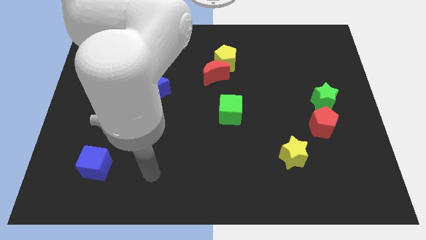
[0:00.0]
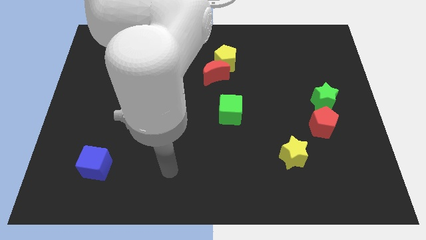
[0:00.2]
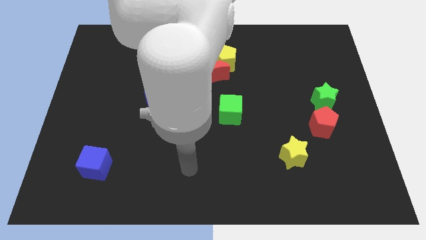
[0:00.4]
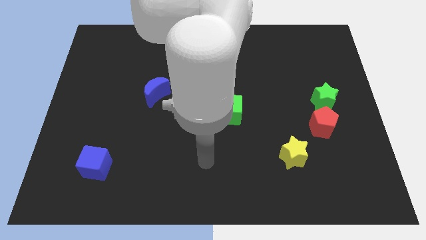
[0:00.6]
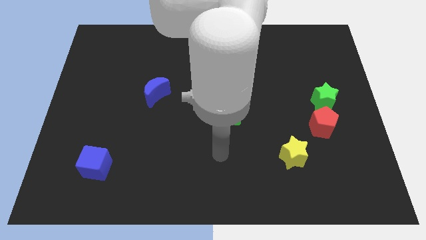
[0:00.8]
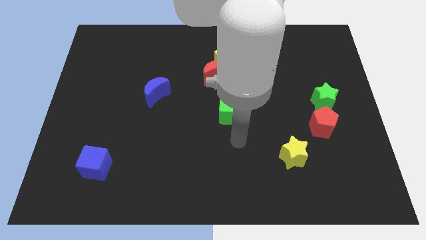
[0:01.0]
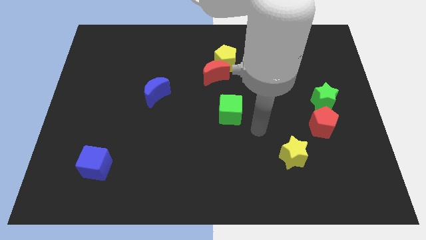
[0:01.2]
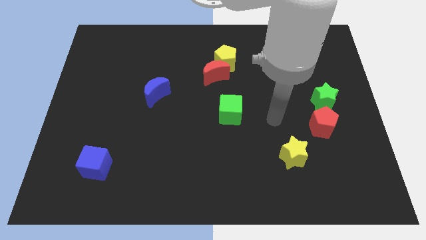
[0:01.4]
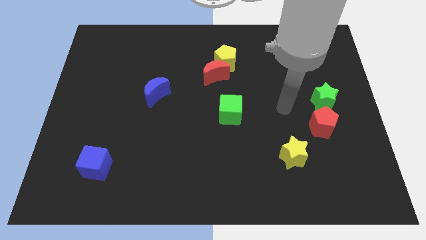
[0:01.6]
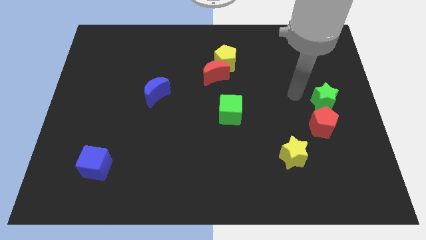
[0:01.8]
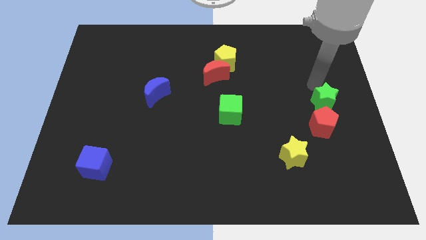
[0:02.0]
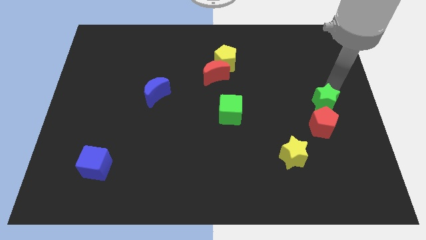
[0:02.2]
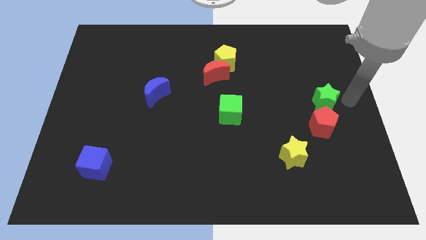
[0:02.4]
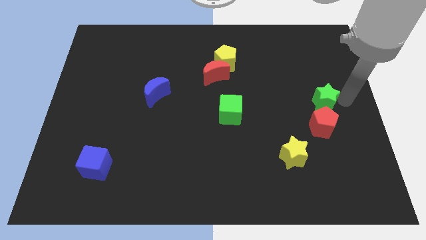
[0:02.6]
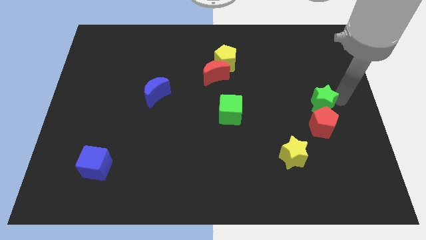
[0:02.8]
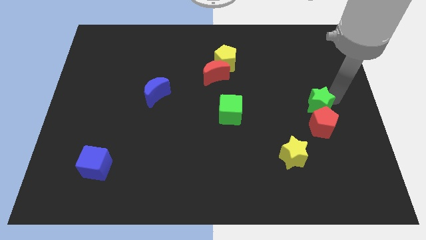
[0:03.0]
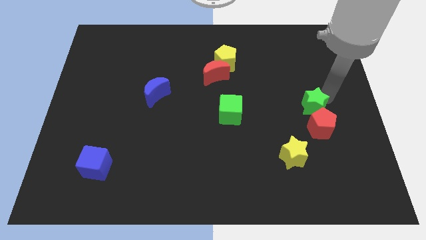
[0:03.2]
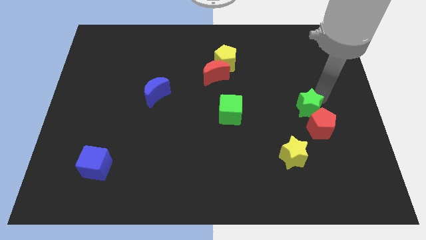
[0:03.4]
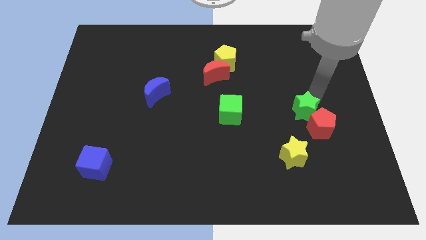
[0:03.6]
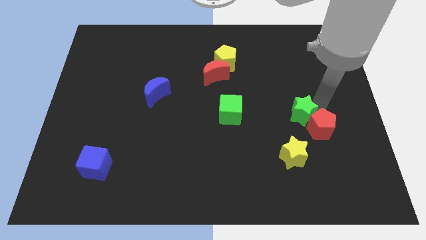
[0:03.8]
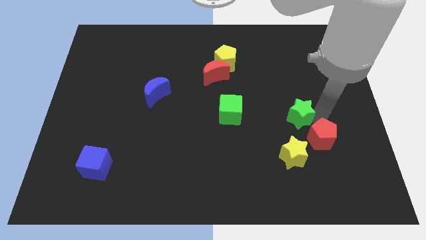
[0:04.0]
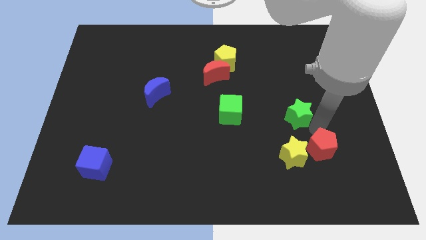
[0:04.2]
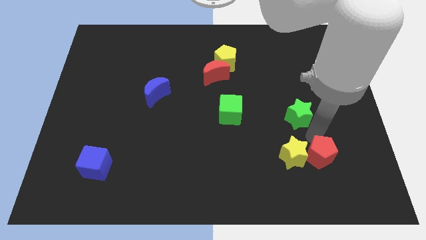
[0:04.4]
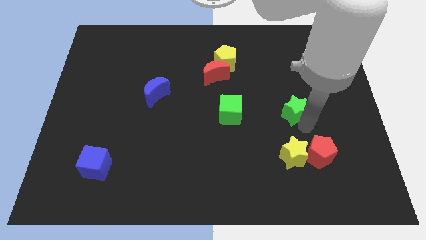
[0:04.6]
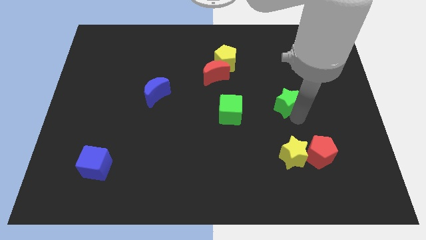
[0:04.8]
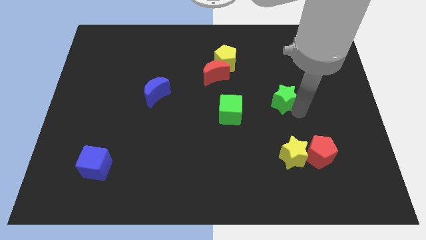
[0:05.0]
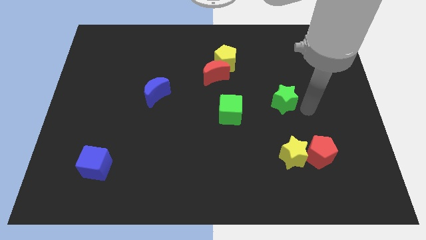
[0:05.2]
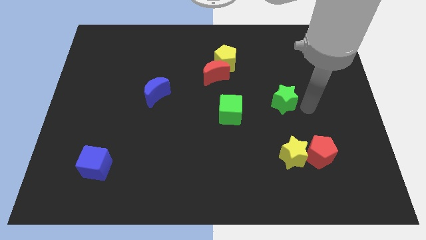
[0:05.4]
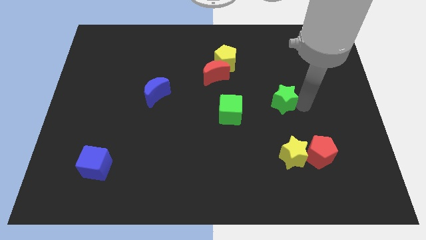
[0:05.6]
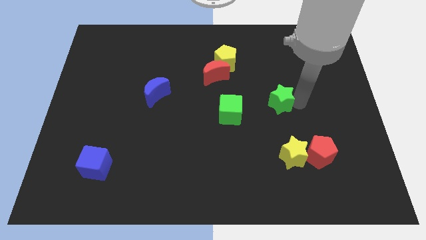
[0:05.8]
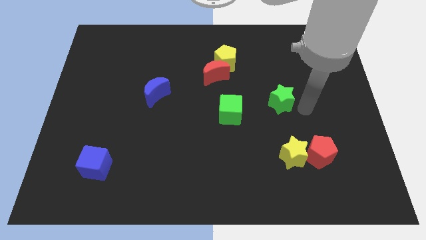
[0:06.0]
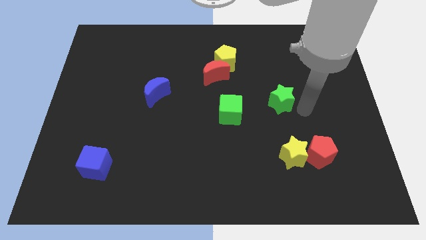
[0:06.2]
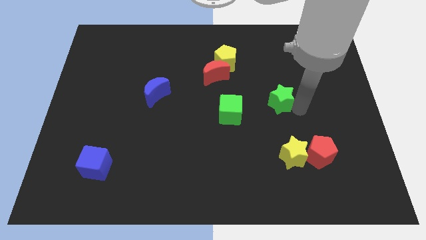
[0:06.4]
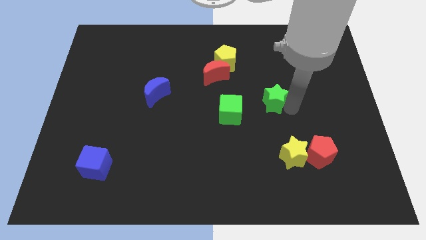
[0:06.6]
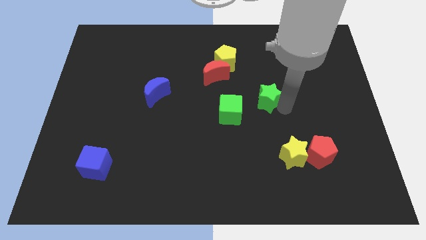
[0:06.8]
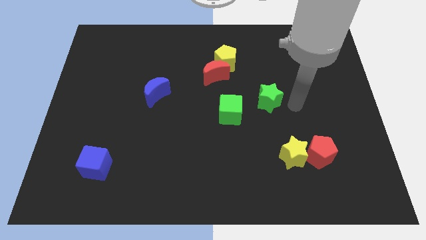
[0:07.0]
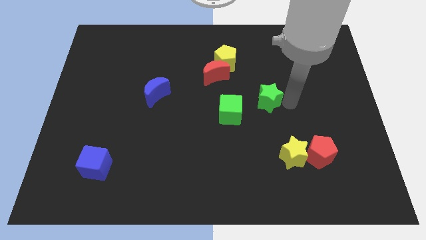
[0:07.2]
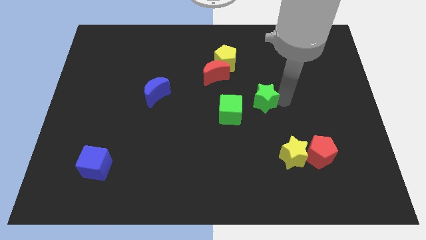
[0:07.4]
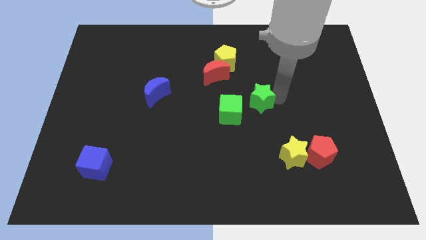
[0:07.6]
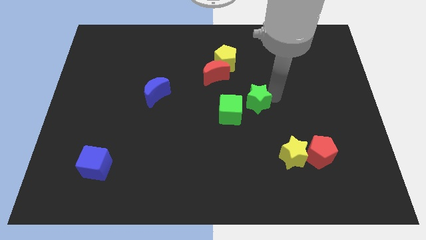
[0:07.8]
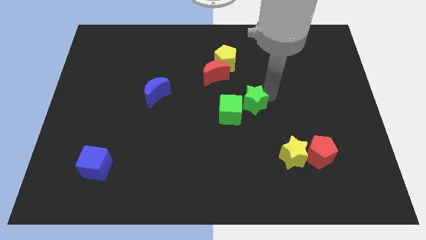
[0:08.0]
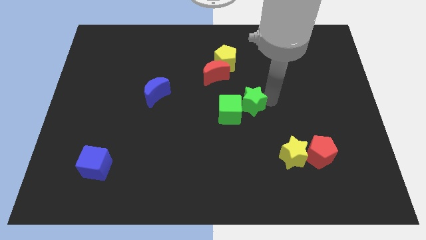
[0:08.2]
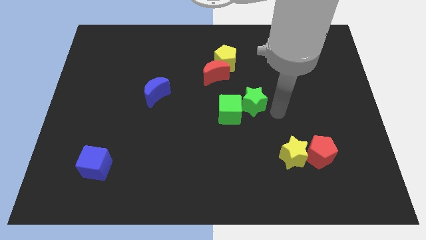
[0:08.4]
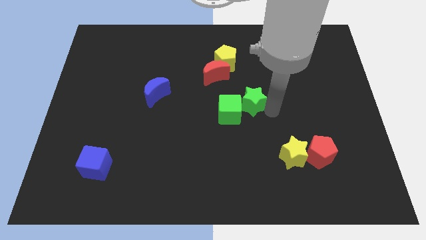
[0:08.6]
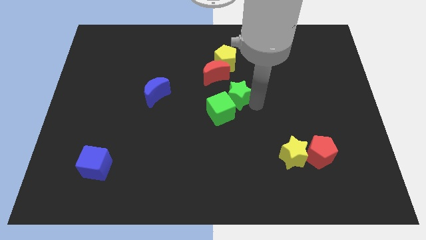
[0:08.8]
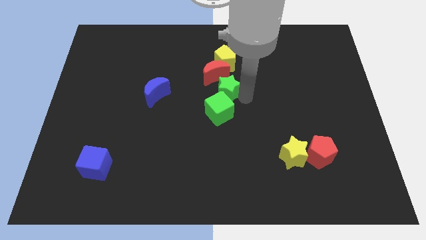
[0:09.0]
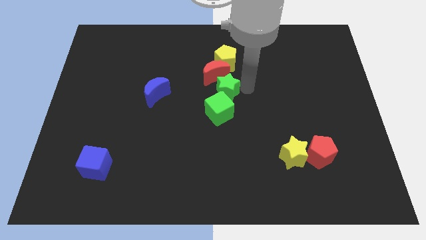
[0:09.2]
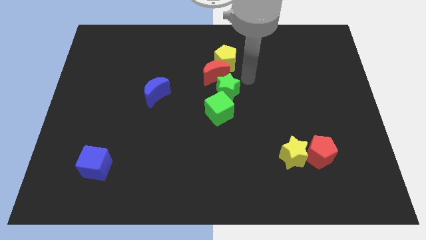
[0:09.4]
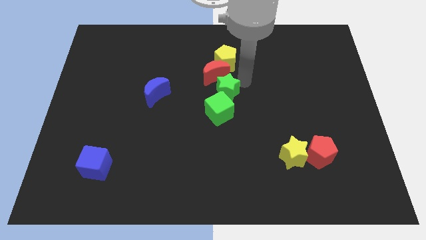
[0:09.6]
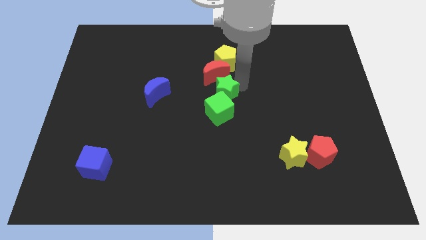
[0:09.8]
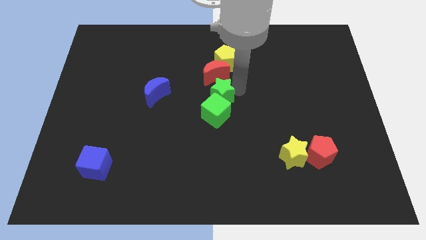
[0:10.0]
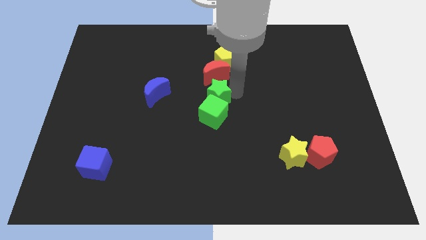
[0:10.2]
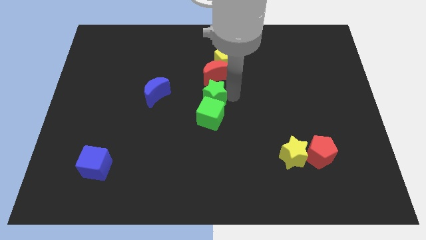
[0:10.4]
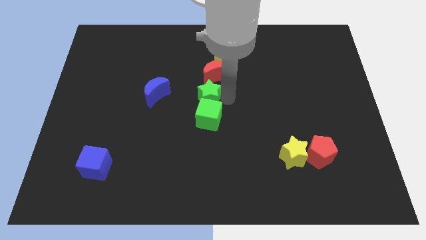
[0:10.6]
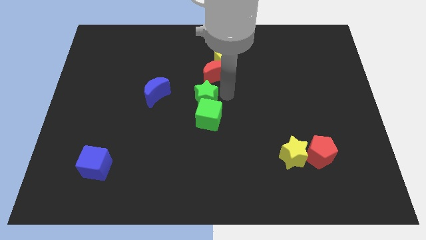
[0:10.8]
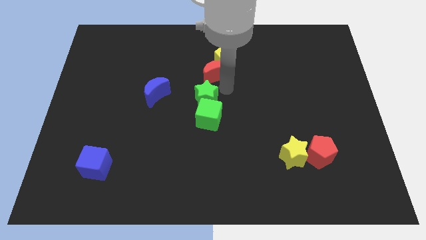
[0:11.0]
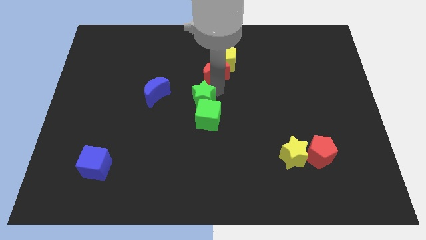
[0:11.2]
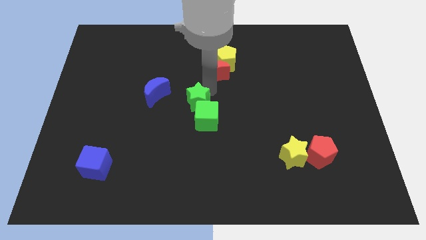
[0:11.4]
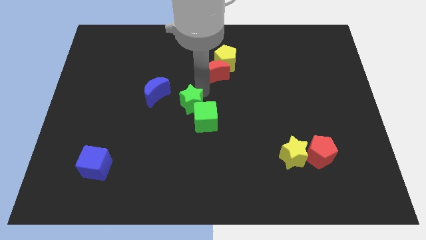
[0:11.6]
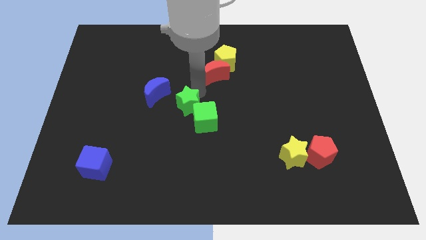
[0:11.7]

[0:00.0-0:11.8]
slide the green star just left of the green cube

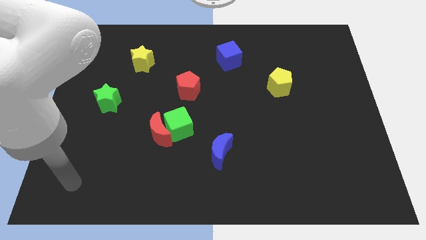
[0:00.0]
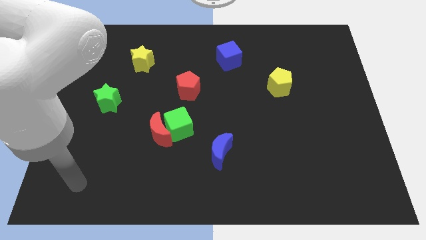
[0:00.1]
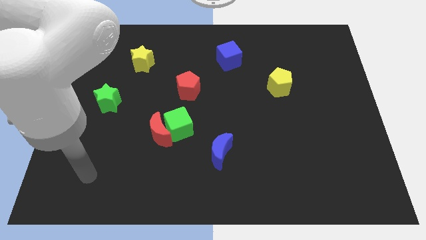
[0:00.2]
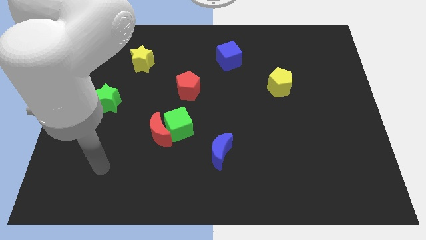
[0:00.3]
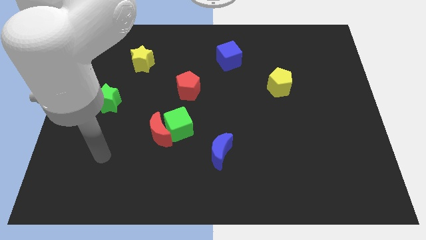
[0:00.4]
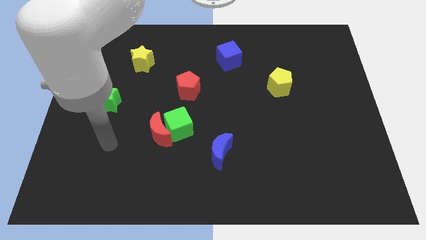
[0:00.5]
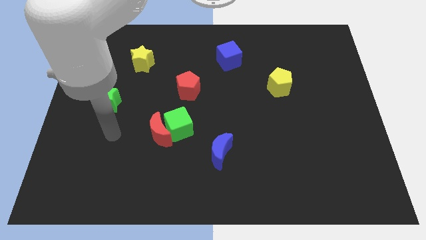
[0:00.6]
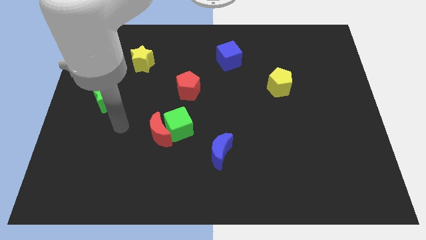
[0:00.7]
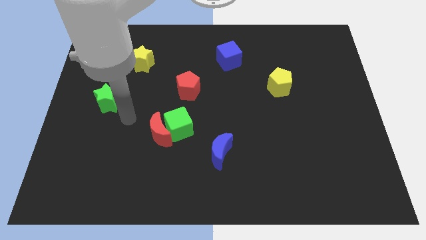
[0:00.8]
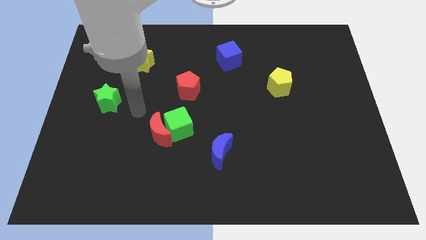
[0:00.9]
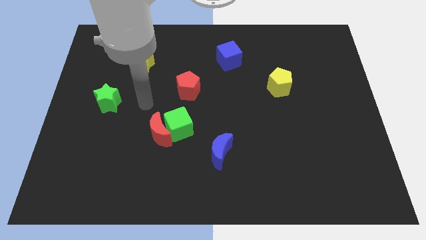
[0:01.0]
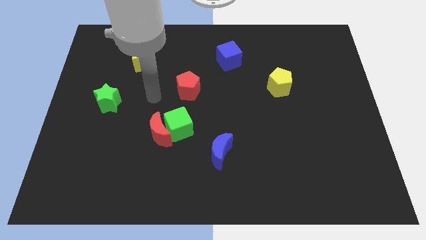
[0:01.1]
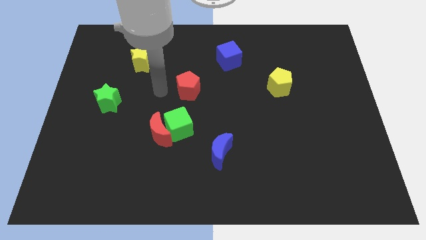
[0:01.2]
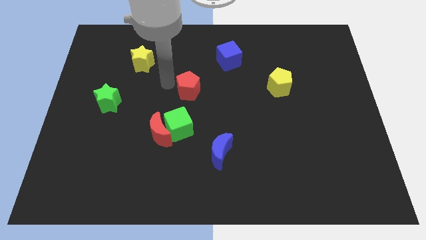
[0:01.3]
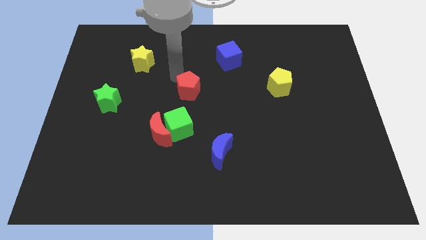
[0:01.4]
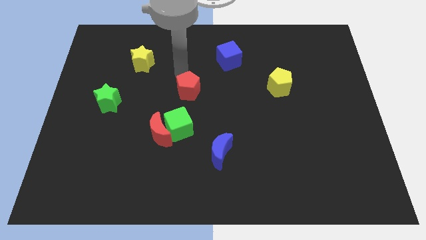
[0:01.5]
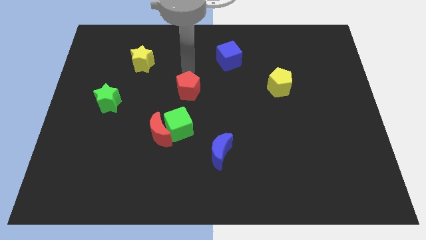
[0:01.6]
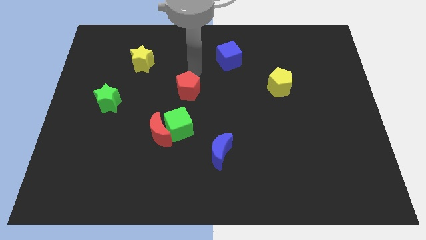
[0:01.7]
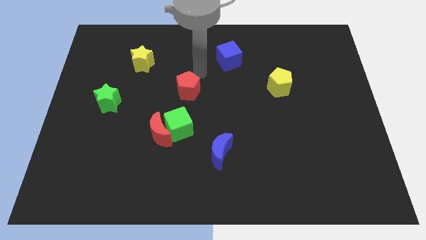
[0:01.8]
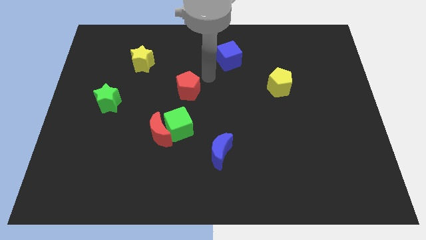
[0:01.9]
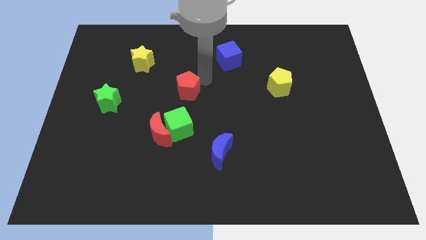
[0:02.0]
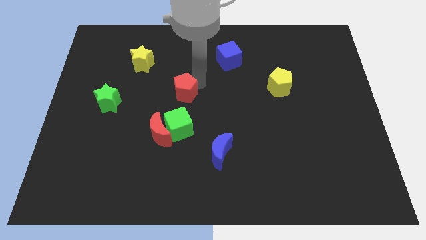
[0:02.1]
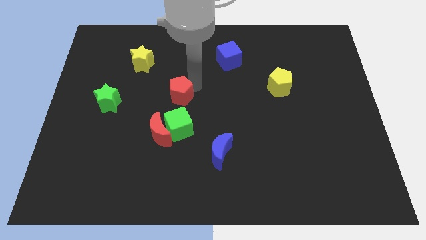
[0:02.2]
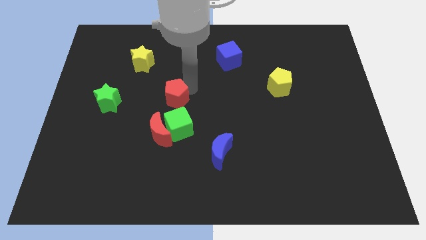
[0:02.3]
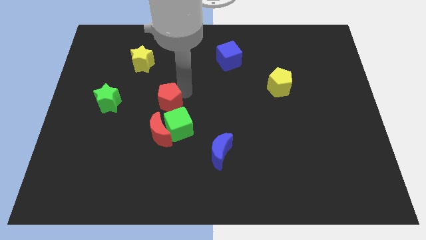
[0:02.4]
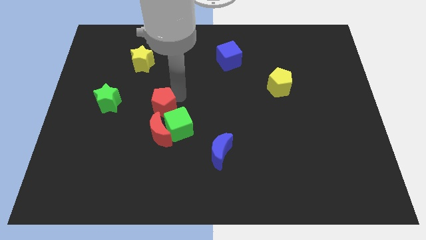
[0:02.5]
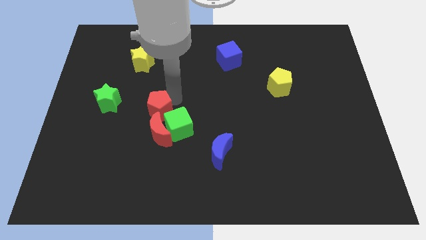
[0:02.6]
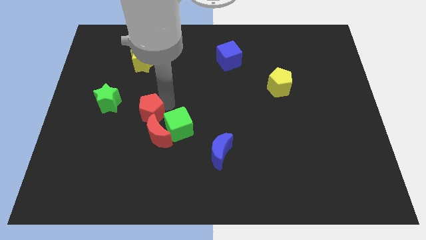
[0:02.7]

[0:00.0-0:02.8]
slide the red pentagon to the left of the green cube
